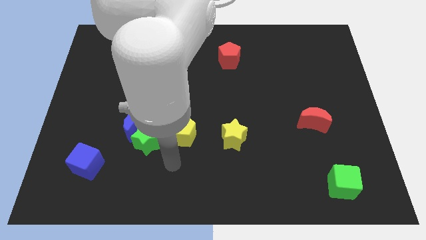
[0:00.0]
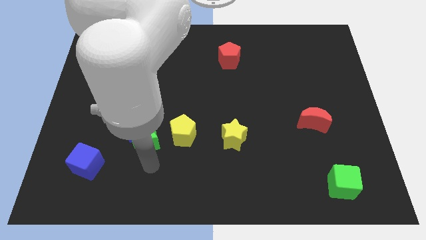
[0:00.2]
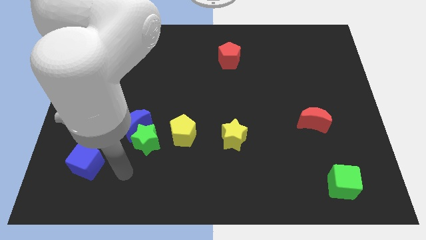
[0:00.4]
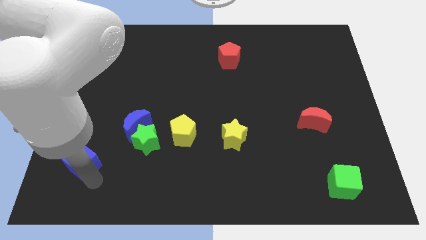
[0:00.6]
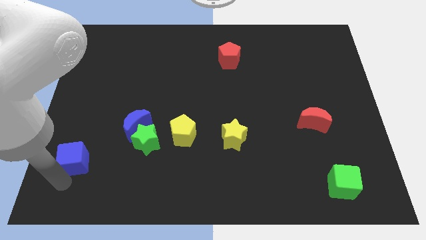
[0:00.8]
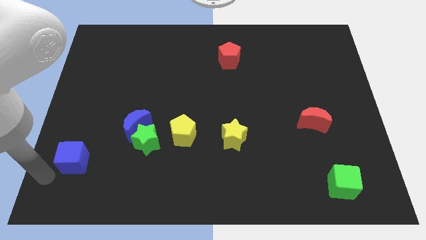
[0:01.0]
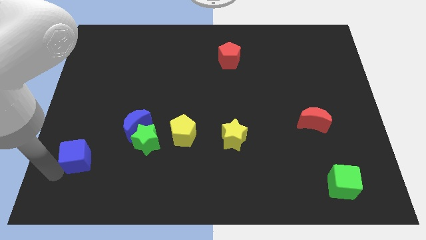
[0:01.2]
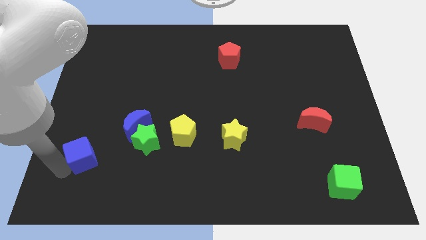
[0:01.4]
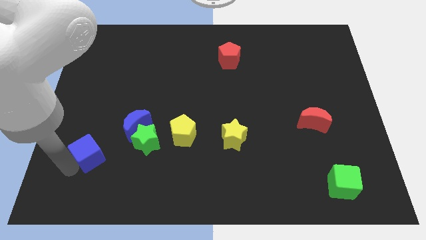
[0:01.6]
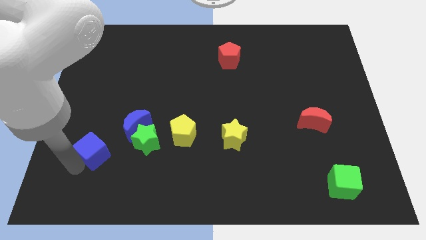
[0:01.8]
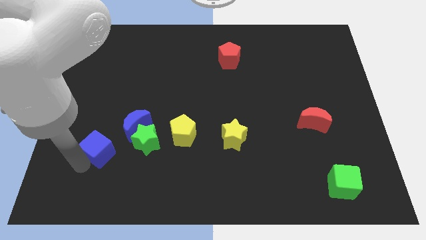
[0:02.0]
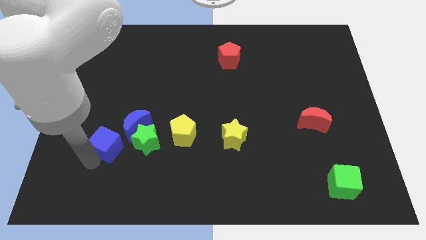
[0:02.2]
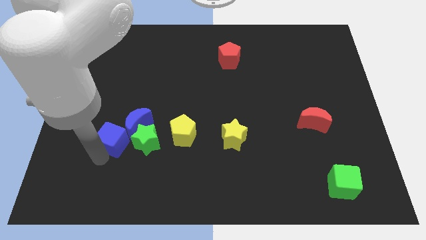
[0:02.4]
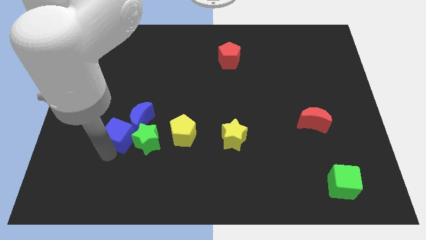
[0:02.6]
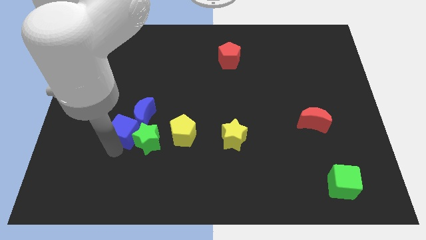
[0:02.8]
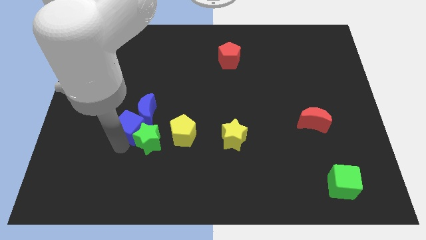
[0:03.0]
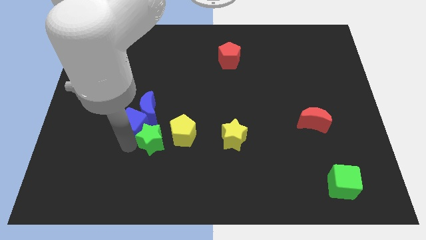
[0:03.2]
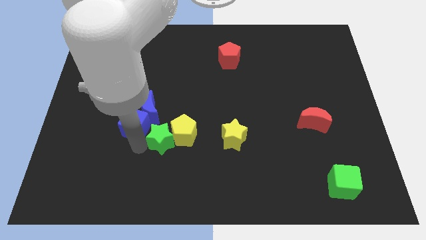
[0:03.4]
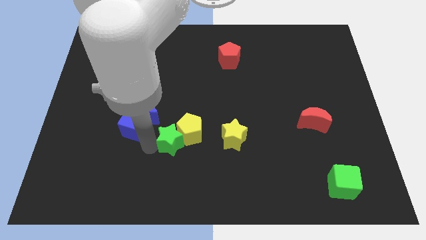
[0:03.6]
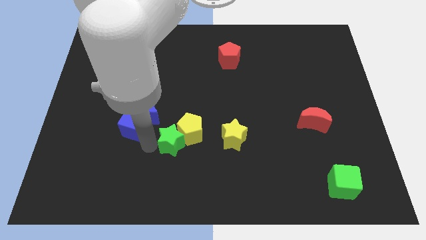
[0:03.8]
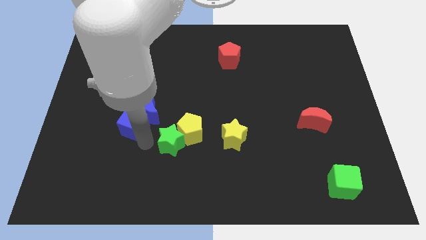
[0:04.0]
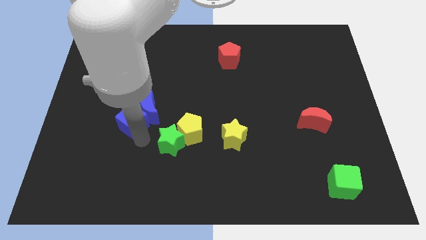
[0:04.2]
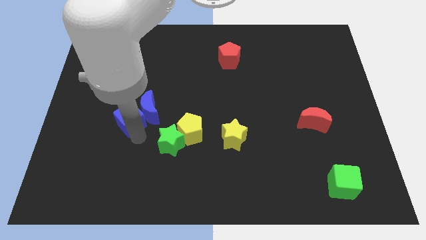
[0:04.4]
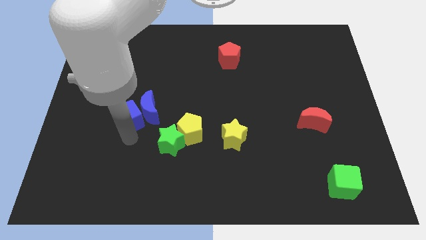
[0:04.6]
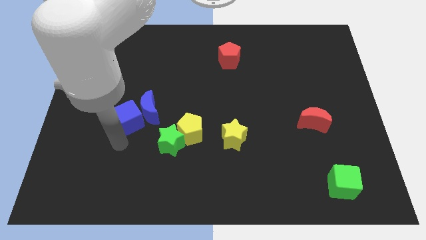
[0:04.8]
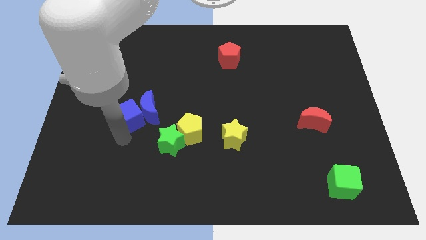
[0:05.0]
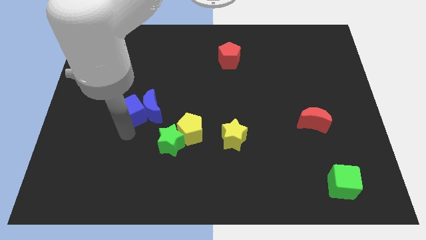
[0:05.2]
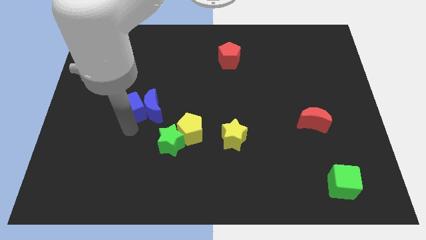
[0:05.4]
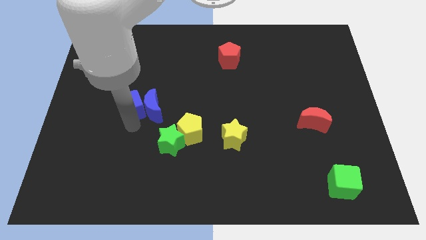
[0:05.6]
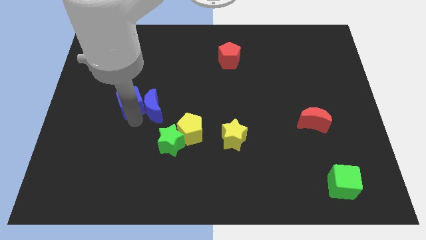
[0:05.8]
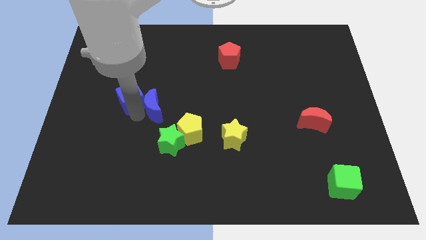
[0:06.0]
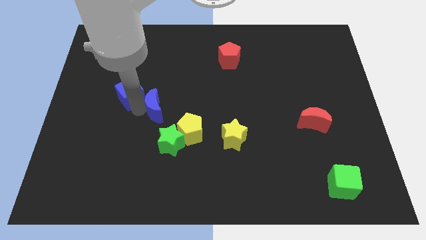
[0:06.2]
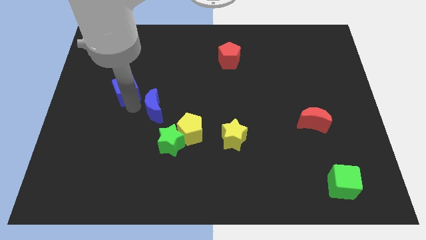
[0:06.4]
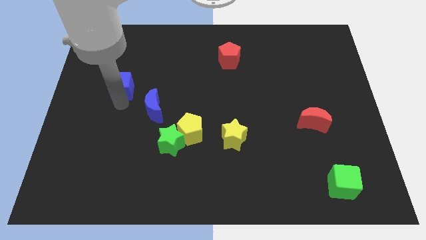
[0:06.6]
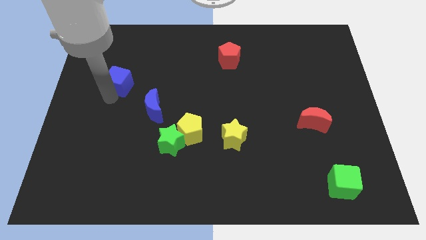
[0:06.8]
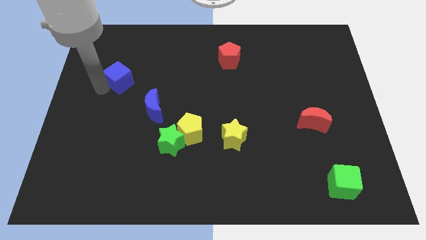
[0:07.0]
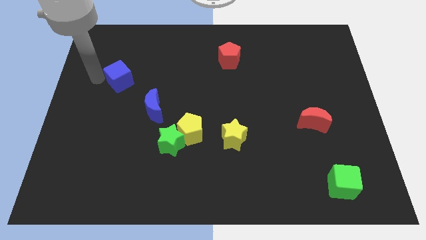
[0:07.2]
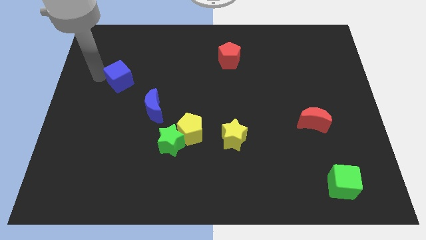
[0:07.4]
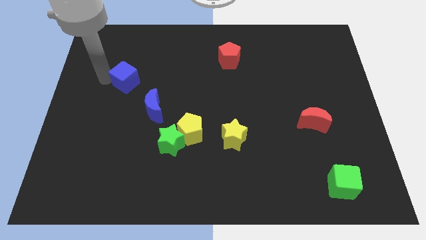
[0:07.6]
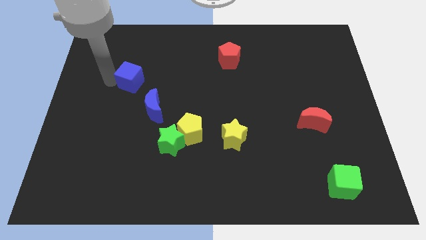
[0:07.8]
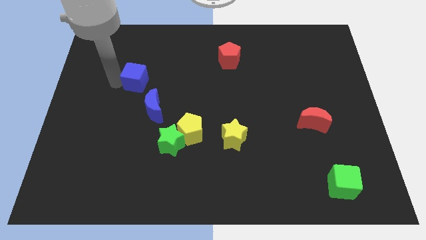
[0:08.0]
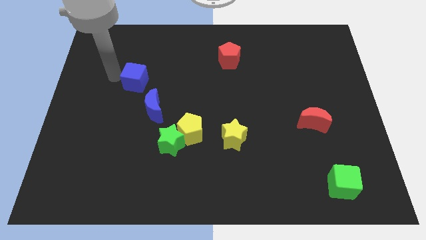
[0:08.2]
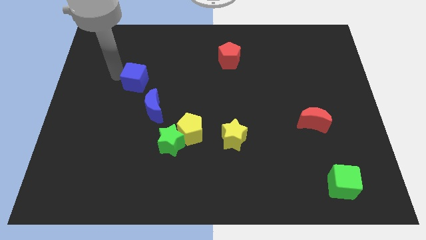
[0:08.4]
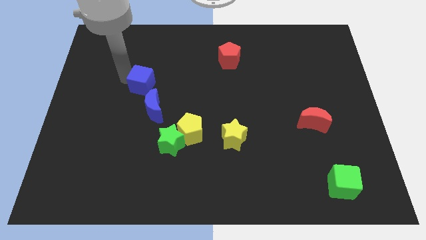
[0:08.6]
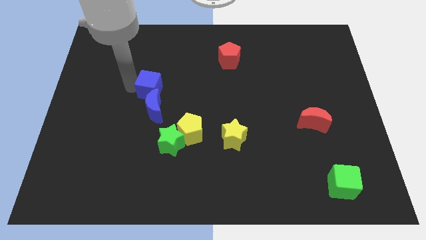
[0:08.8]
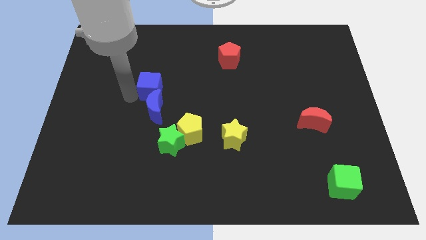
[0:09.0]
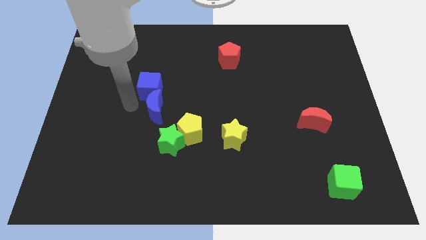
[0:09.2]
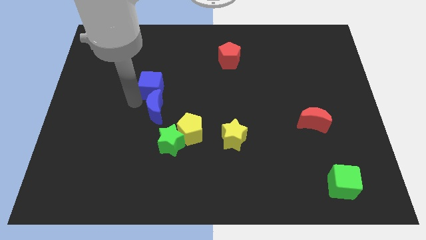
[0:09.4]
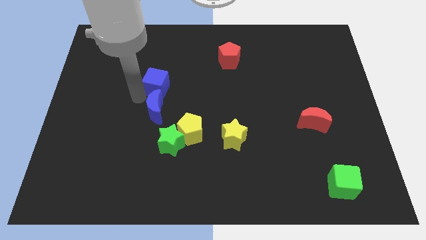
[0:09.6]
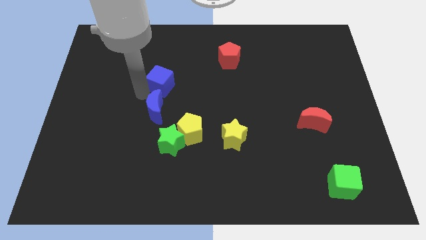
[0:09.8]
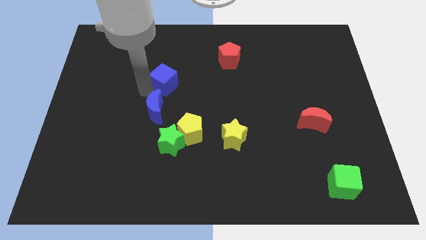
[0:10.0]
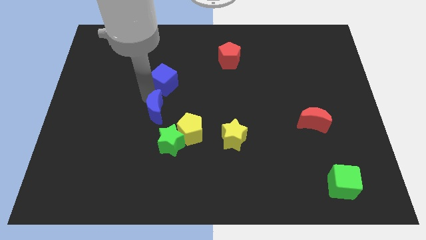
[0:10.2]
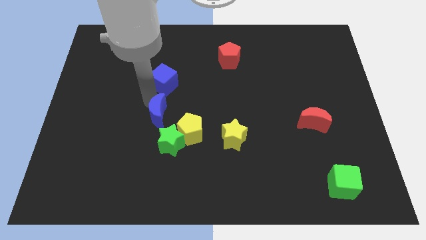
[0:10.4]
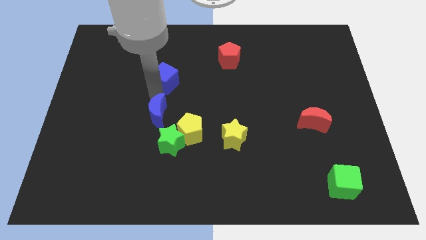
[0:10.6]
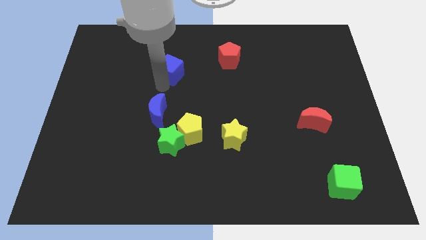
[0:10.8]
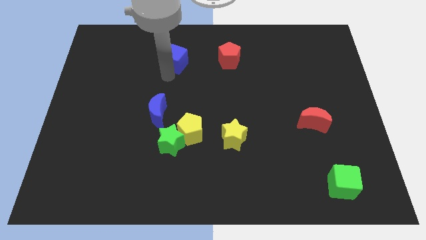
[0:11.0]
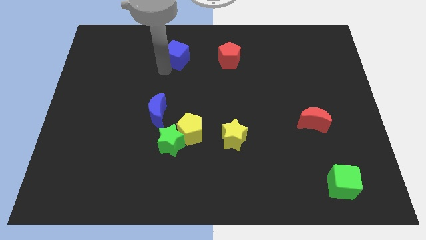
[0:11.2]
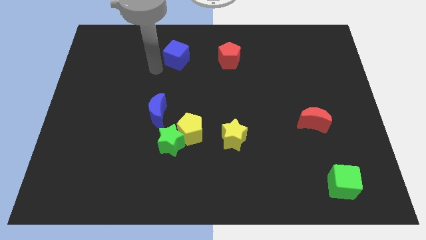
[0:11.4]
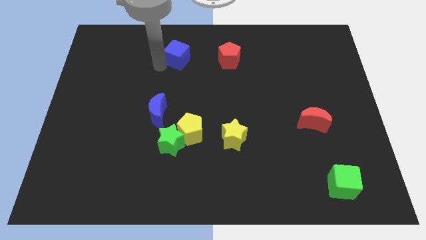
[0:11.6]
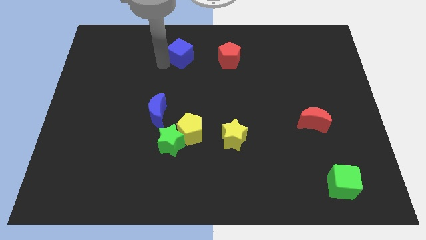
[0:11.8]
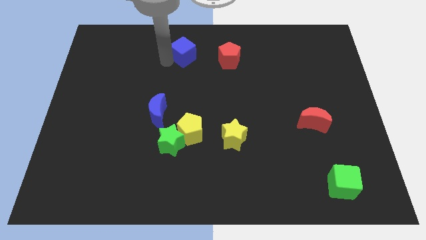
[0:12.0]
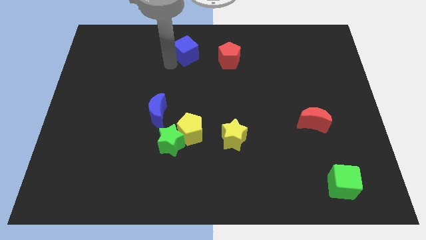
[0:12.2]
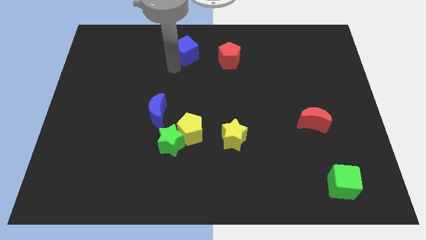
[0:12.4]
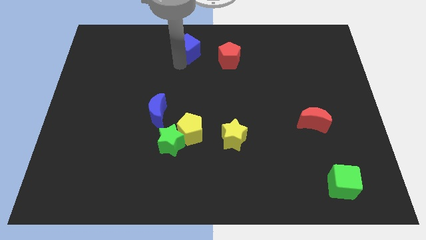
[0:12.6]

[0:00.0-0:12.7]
put the blue cube to the top
